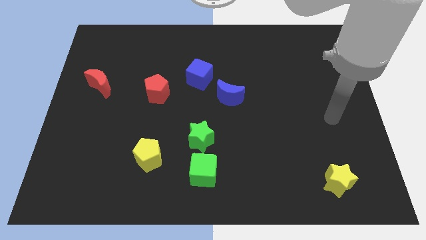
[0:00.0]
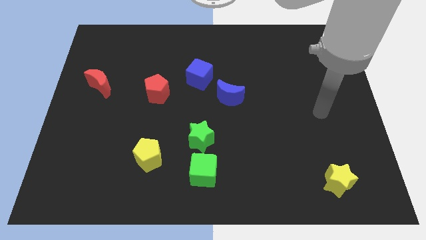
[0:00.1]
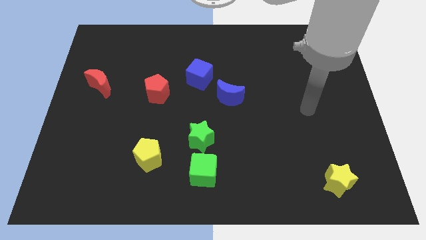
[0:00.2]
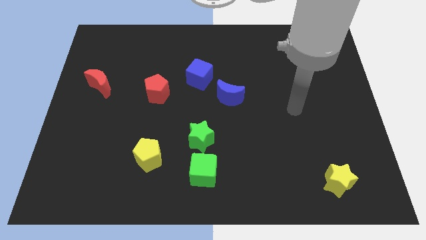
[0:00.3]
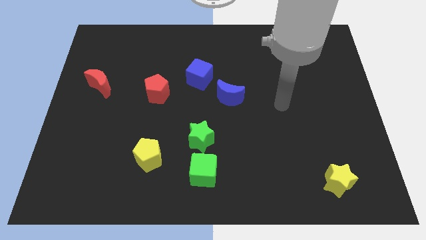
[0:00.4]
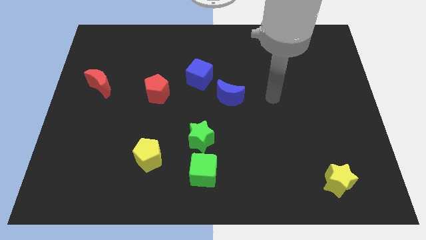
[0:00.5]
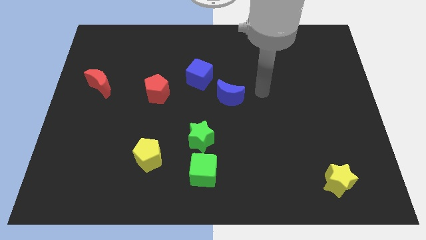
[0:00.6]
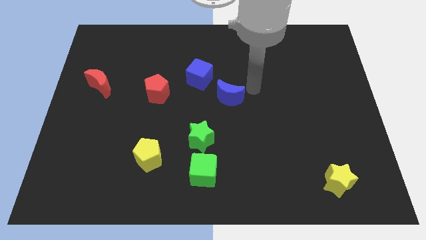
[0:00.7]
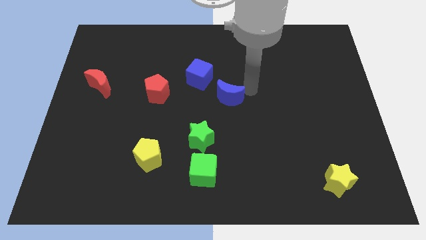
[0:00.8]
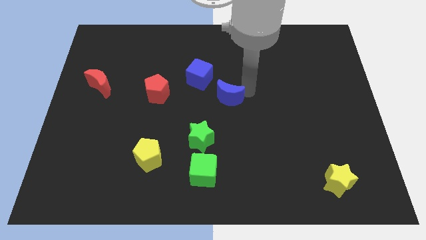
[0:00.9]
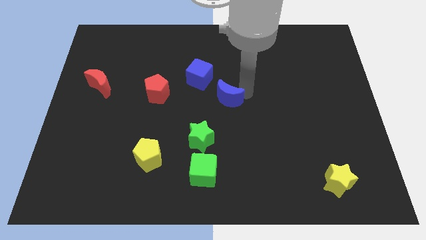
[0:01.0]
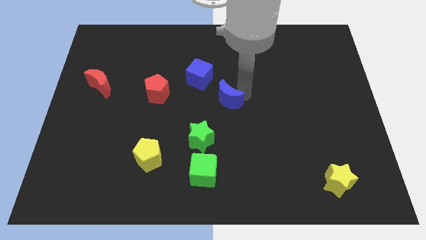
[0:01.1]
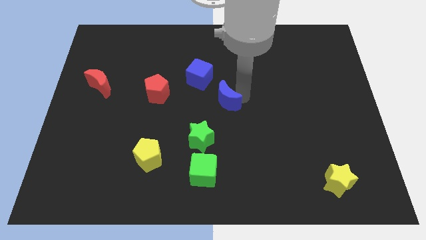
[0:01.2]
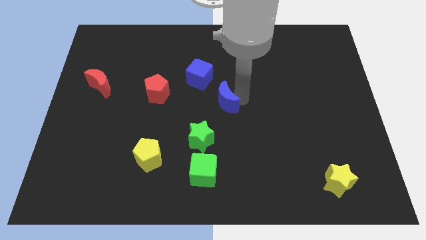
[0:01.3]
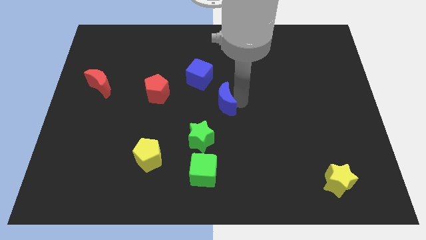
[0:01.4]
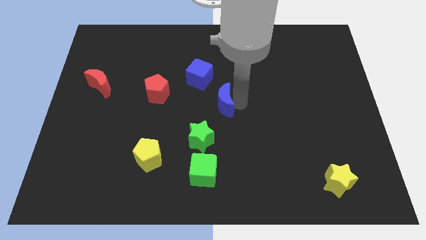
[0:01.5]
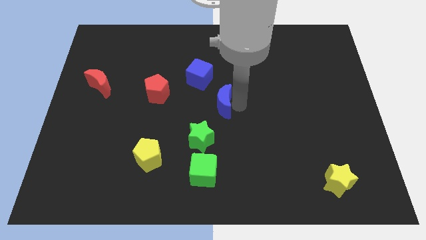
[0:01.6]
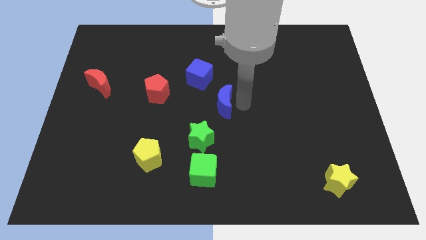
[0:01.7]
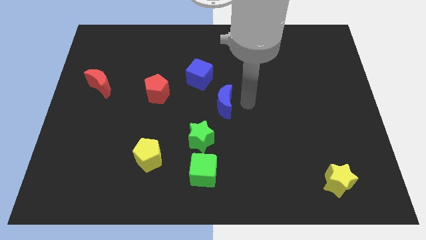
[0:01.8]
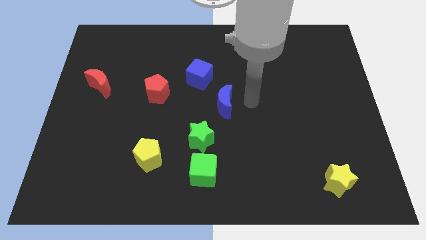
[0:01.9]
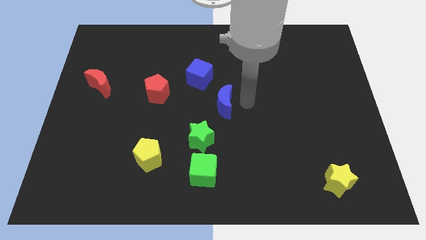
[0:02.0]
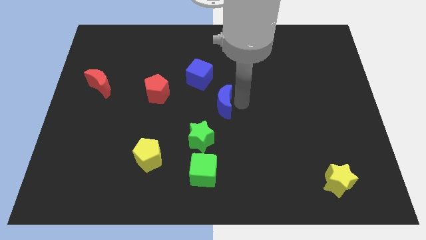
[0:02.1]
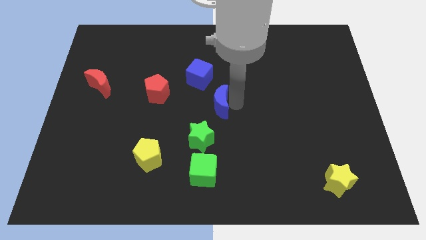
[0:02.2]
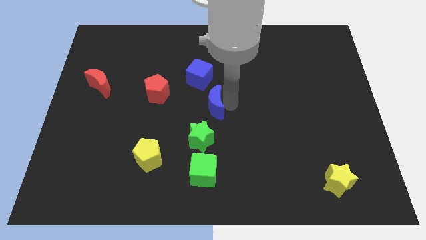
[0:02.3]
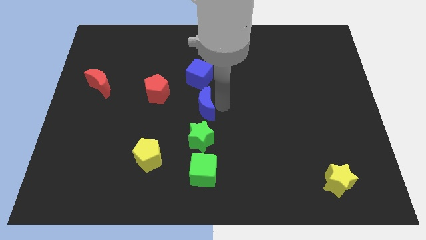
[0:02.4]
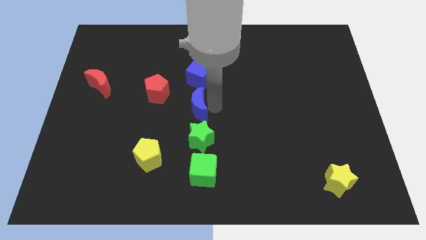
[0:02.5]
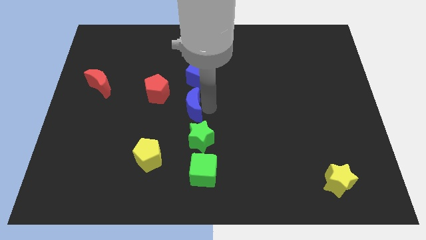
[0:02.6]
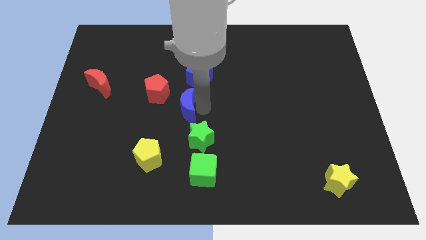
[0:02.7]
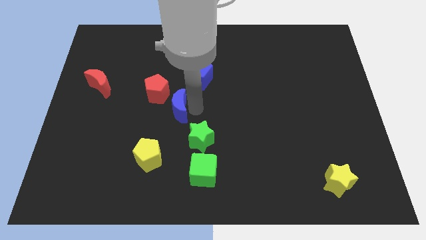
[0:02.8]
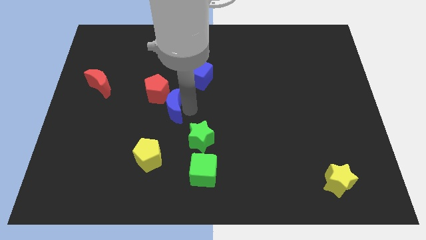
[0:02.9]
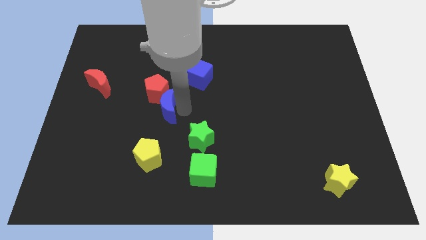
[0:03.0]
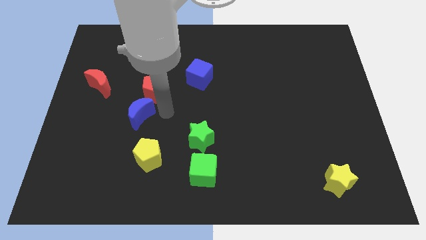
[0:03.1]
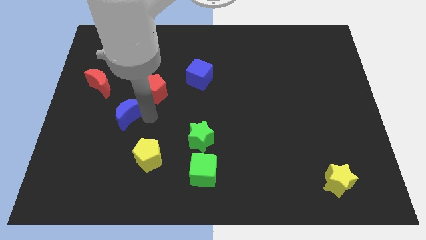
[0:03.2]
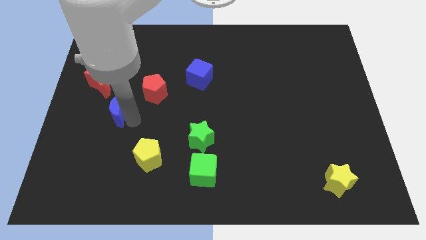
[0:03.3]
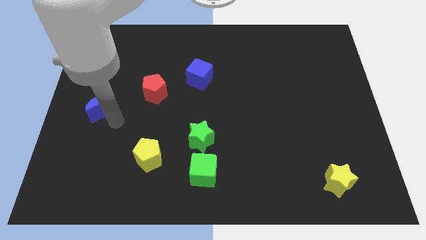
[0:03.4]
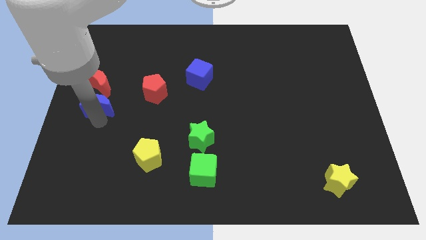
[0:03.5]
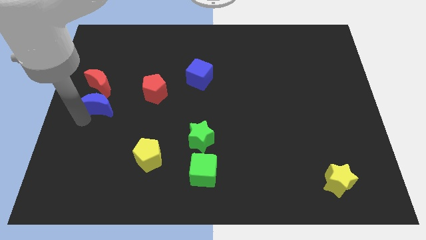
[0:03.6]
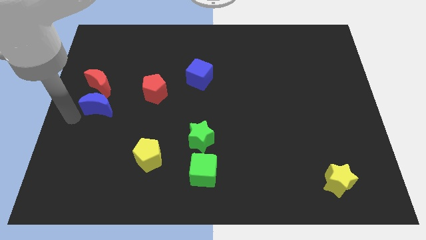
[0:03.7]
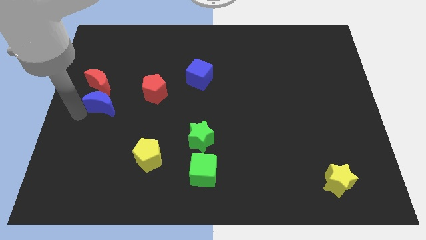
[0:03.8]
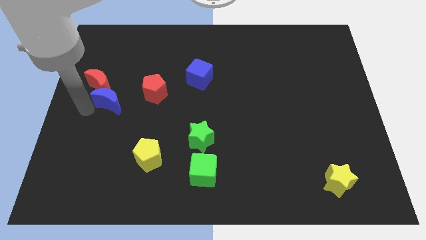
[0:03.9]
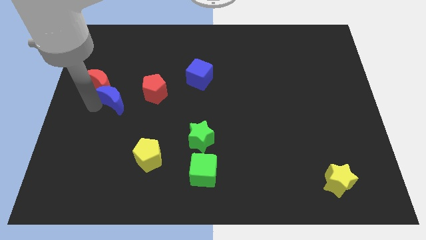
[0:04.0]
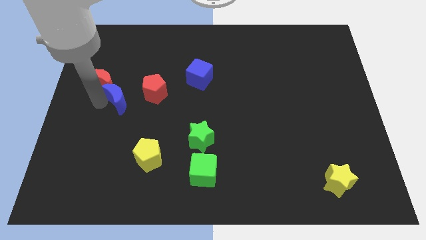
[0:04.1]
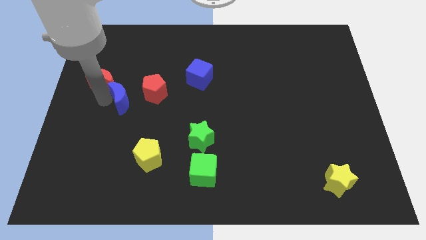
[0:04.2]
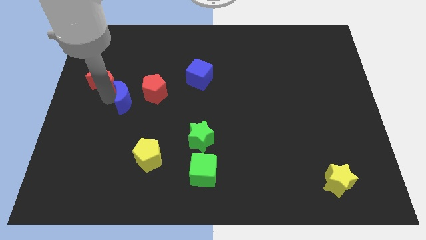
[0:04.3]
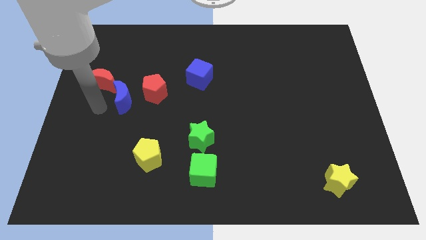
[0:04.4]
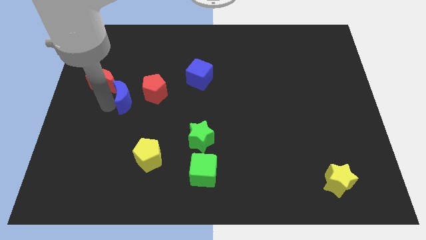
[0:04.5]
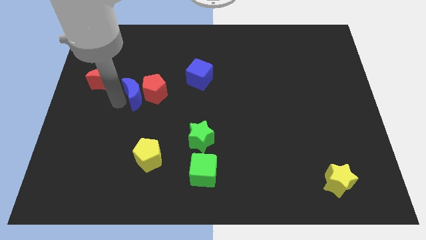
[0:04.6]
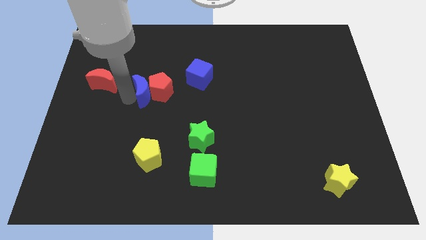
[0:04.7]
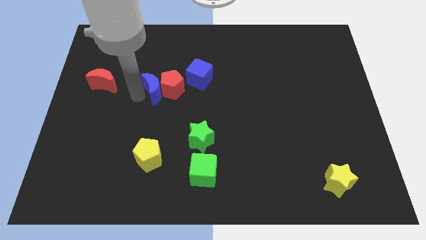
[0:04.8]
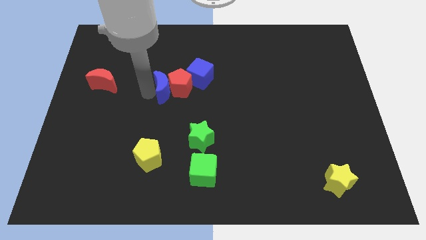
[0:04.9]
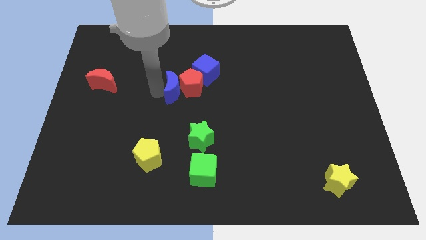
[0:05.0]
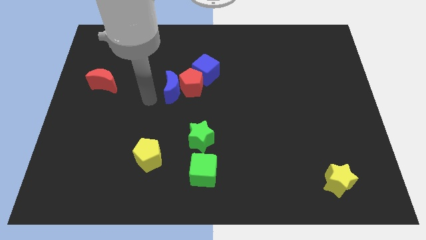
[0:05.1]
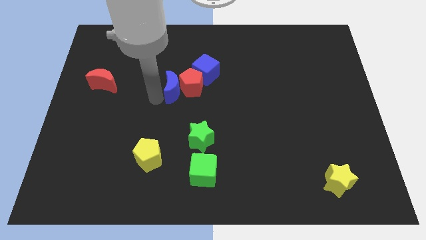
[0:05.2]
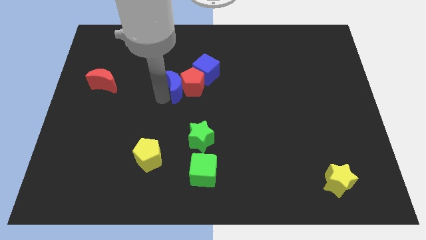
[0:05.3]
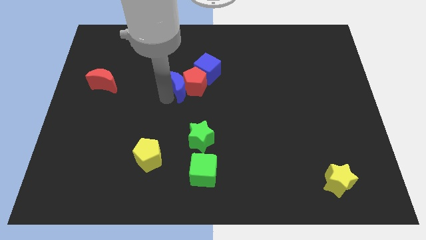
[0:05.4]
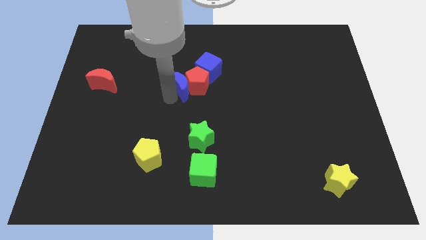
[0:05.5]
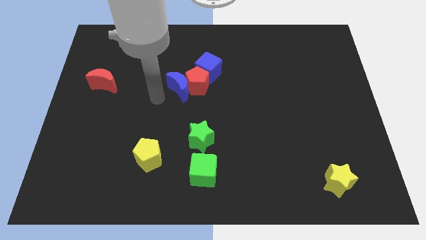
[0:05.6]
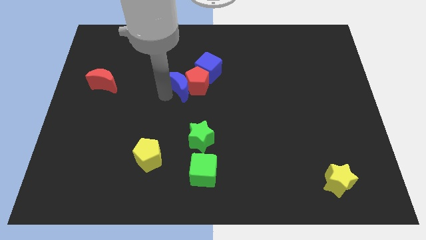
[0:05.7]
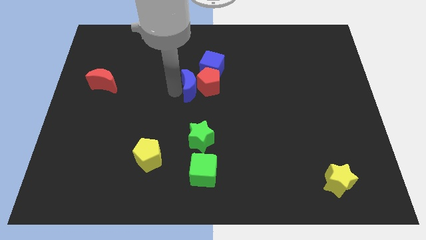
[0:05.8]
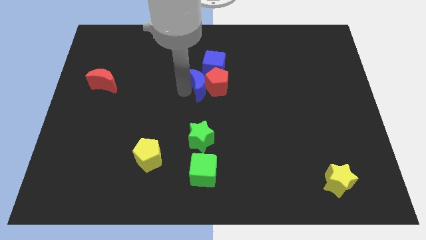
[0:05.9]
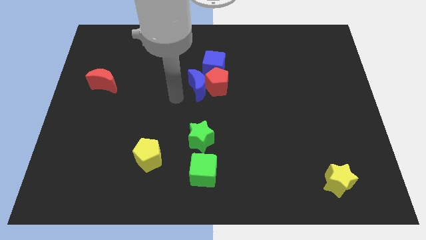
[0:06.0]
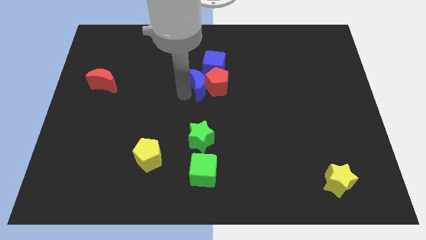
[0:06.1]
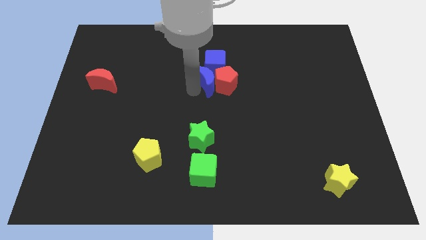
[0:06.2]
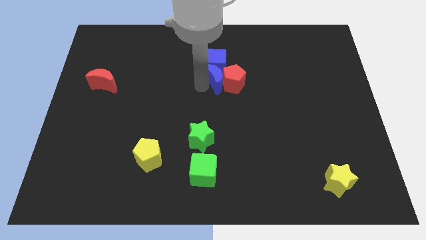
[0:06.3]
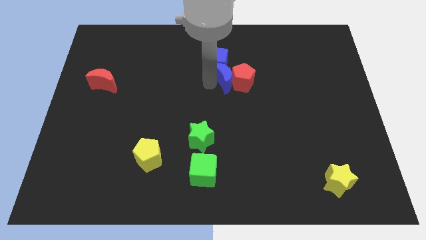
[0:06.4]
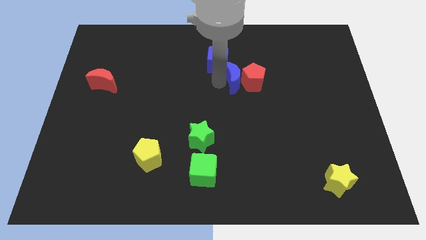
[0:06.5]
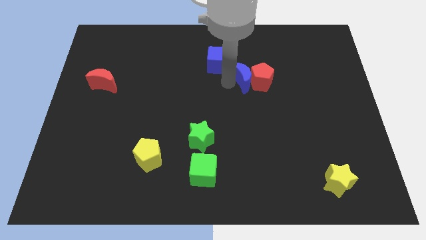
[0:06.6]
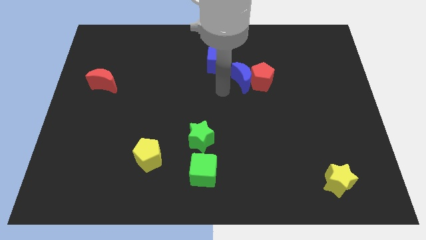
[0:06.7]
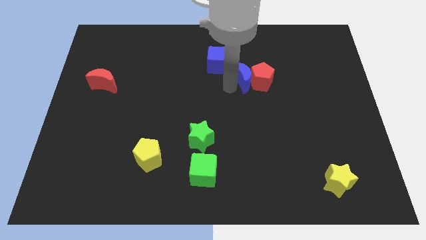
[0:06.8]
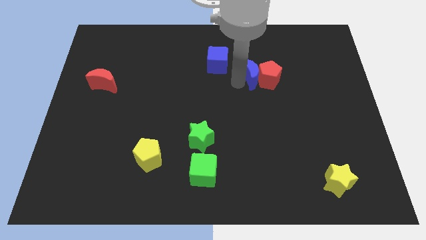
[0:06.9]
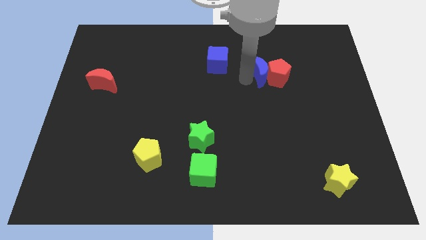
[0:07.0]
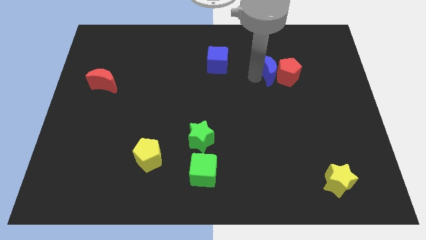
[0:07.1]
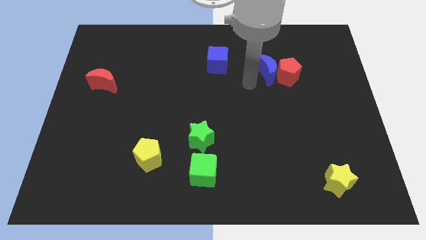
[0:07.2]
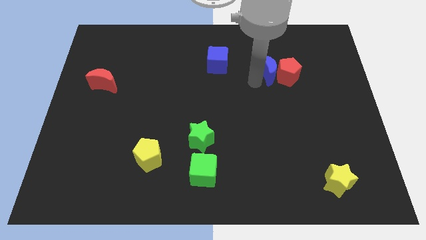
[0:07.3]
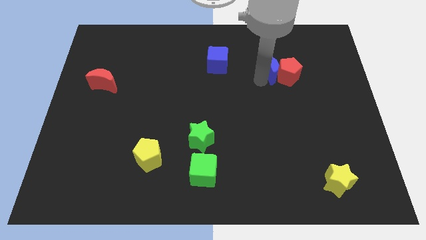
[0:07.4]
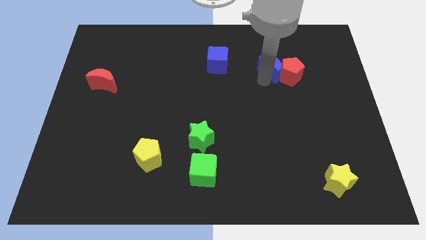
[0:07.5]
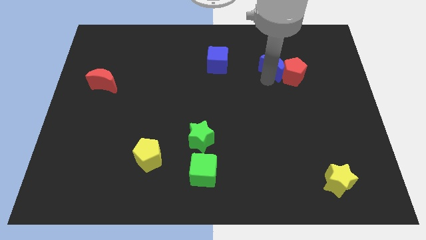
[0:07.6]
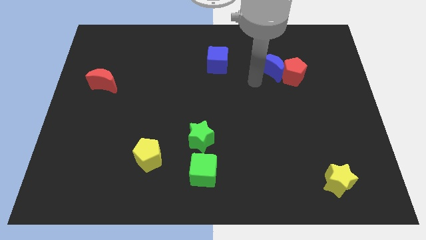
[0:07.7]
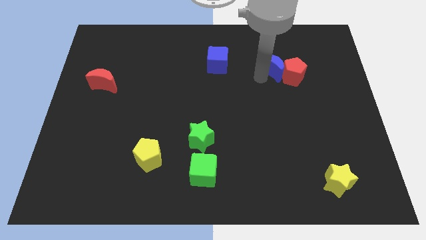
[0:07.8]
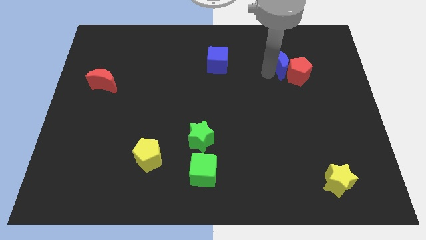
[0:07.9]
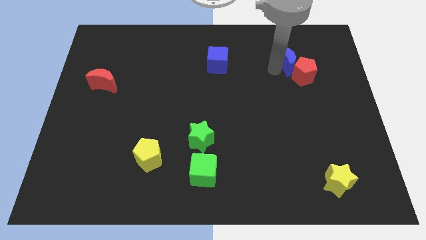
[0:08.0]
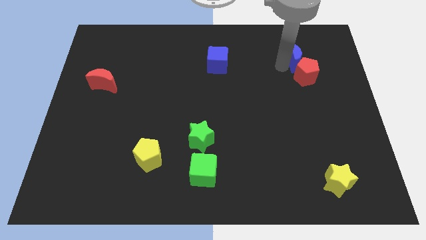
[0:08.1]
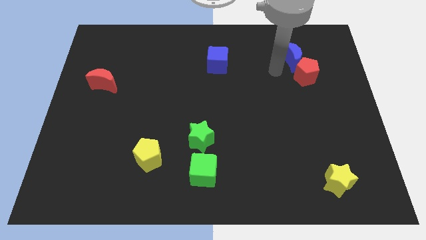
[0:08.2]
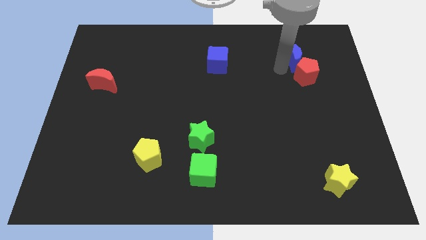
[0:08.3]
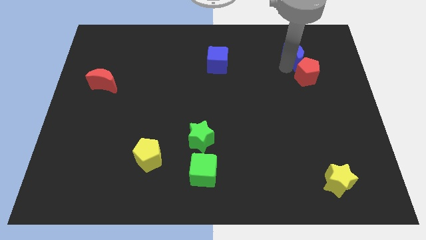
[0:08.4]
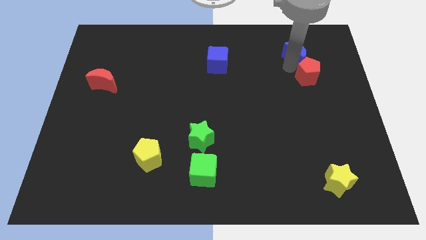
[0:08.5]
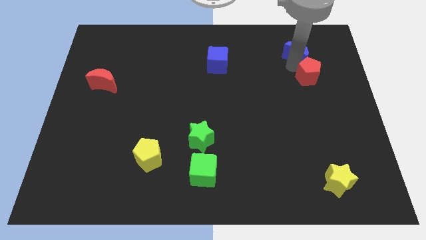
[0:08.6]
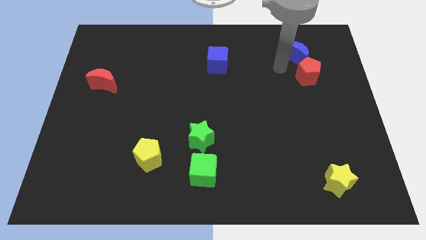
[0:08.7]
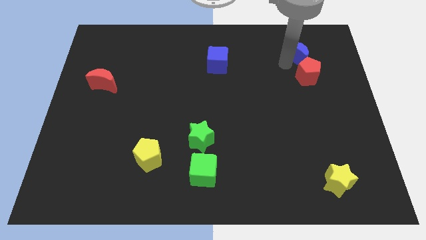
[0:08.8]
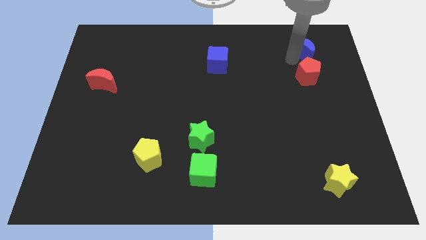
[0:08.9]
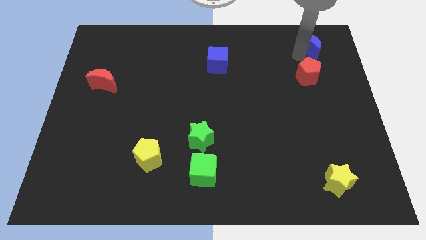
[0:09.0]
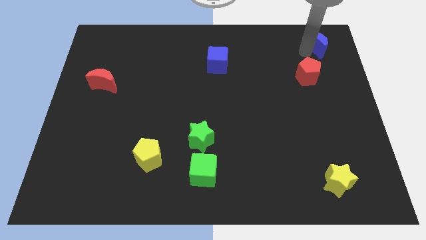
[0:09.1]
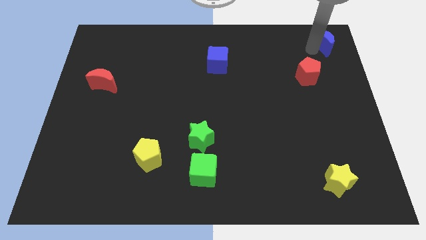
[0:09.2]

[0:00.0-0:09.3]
put the blue moon to the top right of the board
